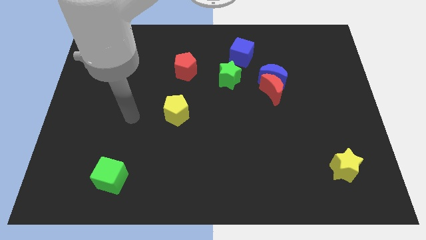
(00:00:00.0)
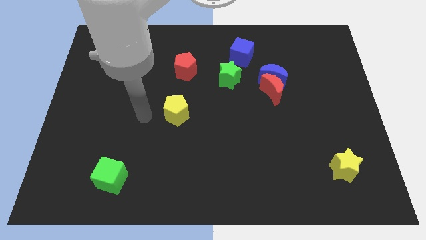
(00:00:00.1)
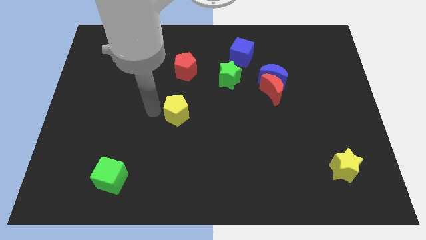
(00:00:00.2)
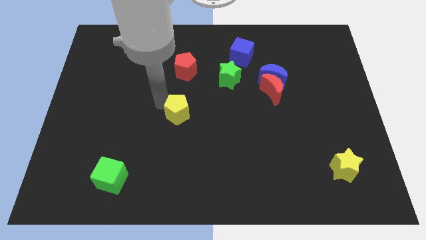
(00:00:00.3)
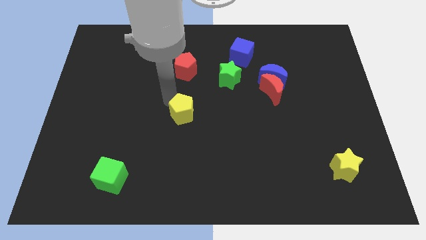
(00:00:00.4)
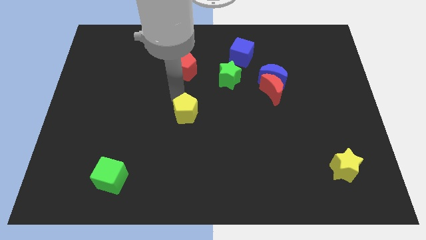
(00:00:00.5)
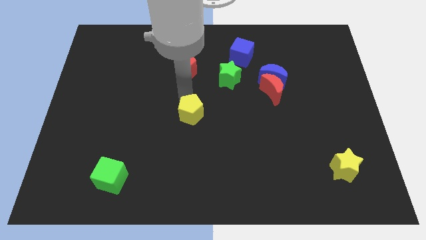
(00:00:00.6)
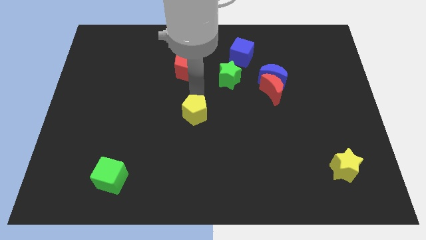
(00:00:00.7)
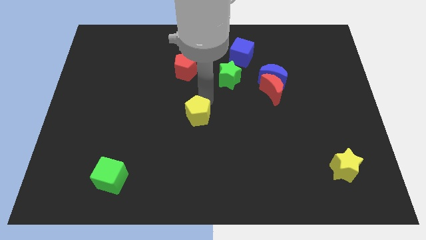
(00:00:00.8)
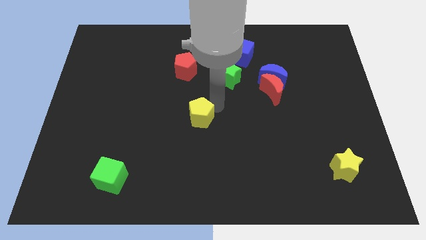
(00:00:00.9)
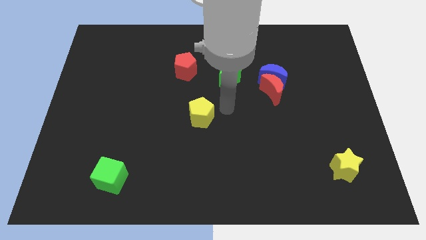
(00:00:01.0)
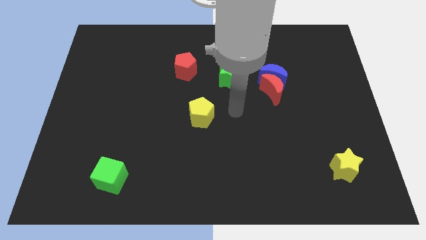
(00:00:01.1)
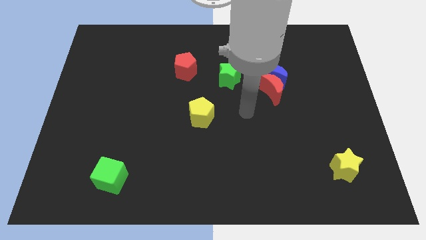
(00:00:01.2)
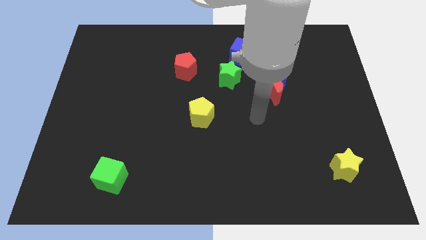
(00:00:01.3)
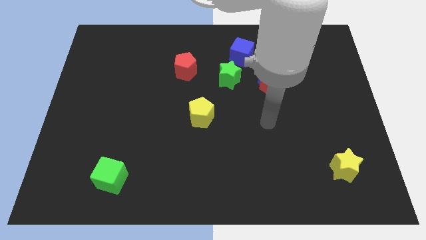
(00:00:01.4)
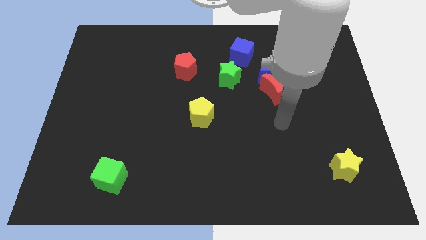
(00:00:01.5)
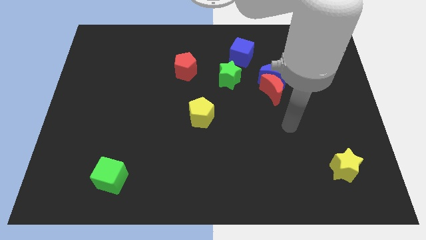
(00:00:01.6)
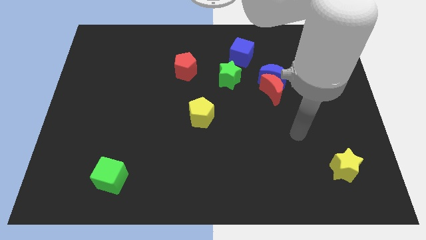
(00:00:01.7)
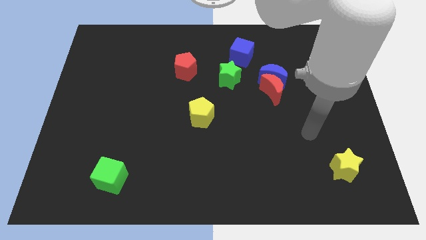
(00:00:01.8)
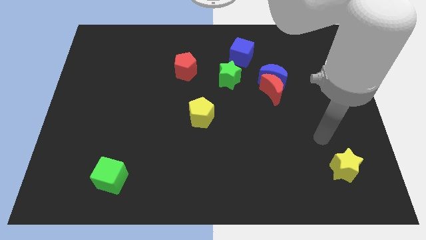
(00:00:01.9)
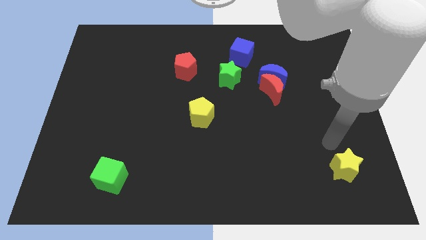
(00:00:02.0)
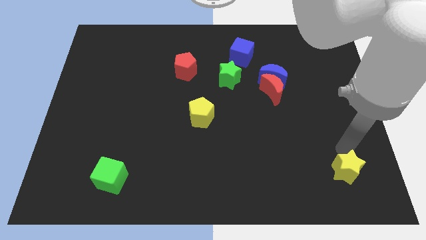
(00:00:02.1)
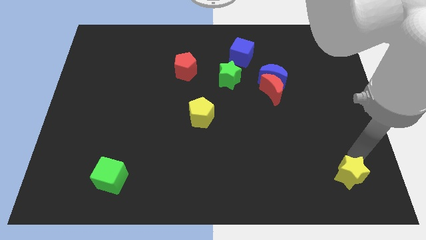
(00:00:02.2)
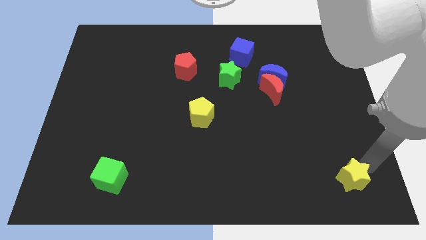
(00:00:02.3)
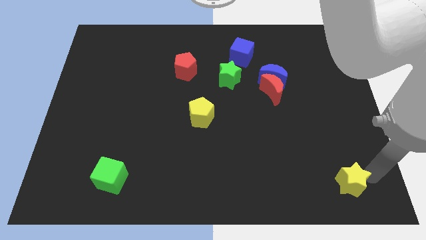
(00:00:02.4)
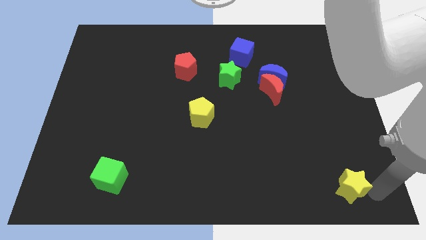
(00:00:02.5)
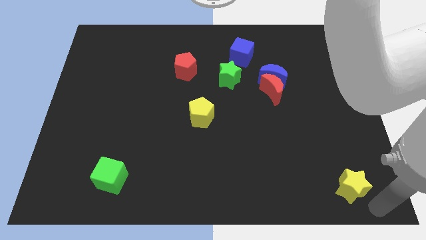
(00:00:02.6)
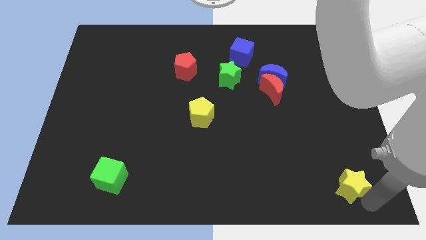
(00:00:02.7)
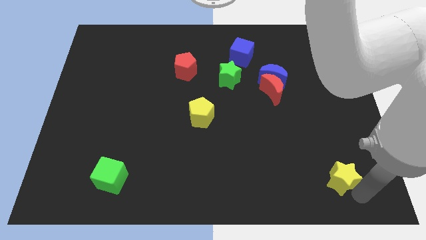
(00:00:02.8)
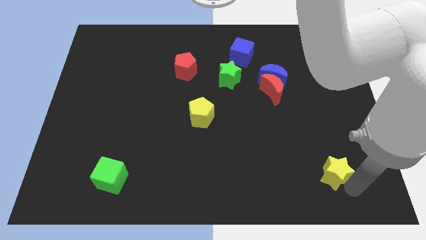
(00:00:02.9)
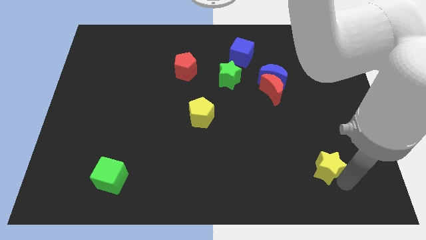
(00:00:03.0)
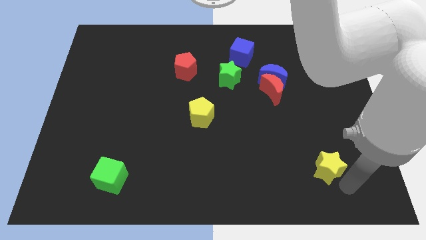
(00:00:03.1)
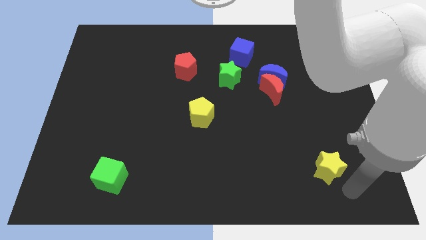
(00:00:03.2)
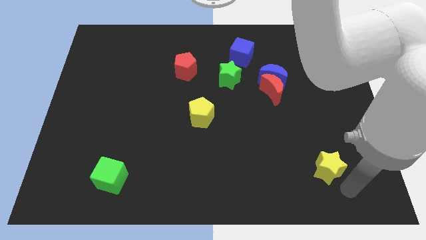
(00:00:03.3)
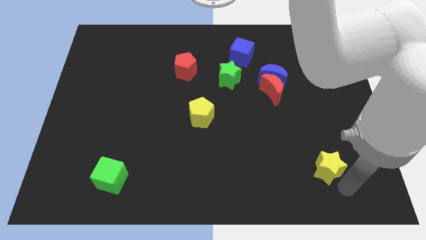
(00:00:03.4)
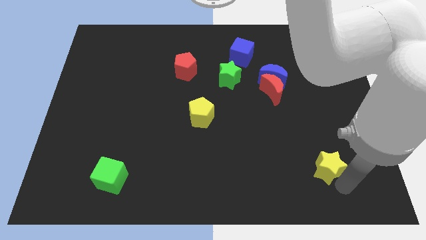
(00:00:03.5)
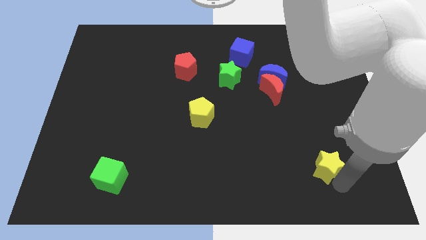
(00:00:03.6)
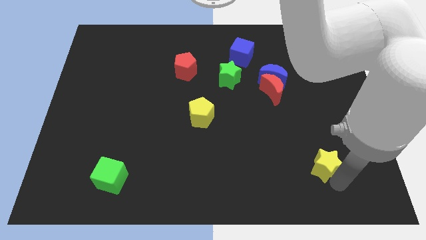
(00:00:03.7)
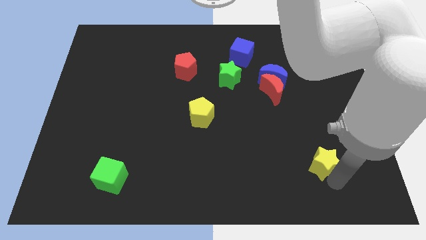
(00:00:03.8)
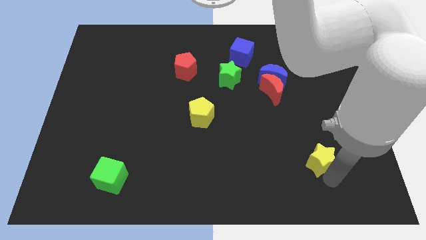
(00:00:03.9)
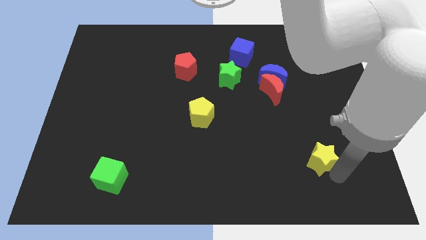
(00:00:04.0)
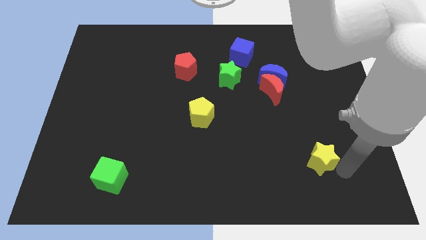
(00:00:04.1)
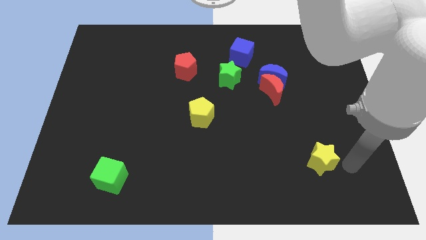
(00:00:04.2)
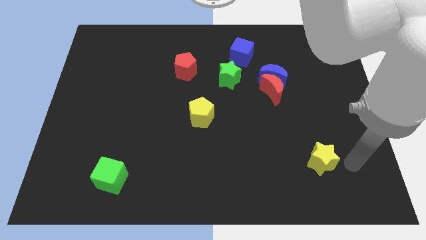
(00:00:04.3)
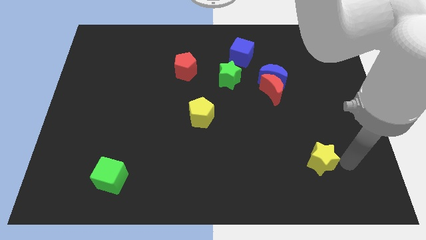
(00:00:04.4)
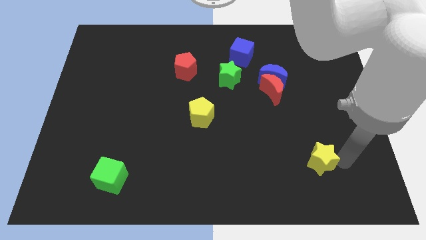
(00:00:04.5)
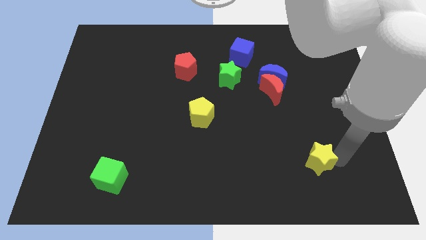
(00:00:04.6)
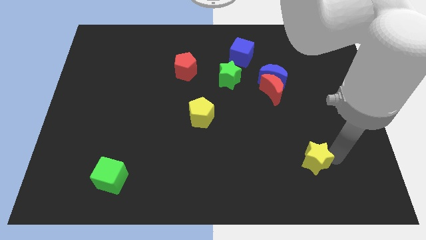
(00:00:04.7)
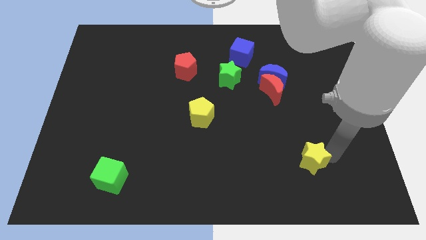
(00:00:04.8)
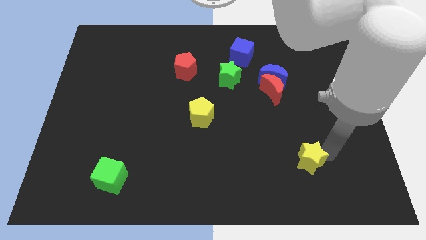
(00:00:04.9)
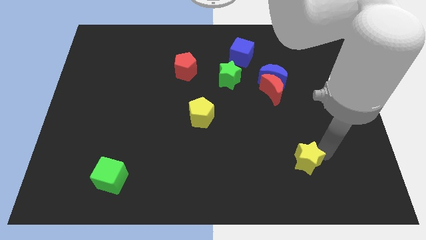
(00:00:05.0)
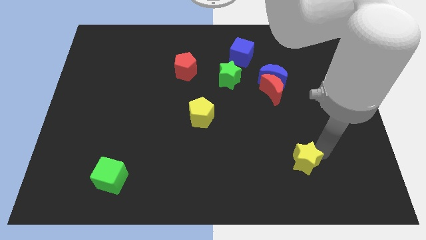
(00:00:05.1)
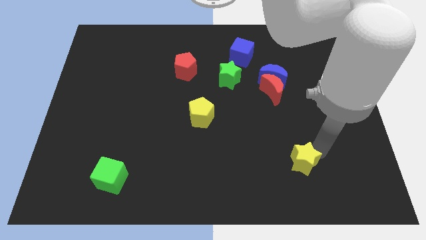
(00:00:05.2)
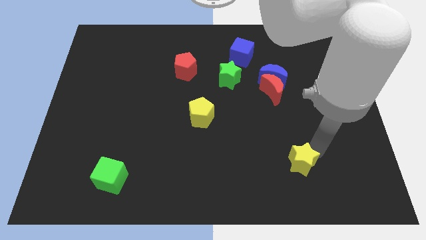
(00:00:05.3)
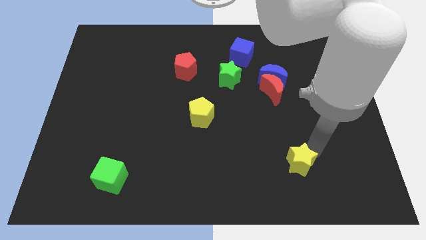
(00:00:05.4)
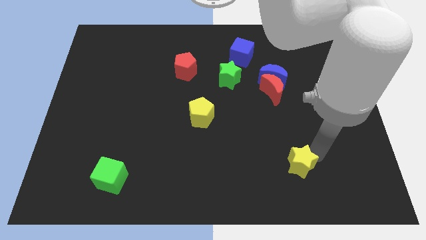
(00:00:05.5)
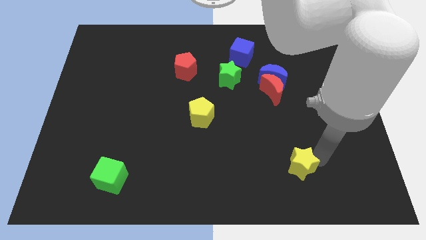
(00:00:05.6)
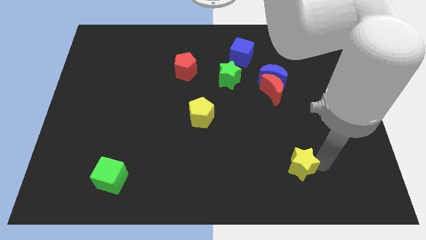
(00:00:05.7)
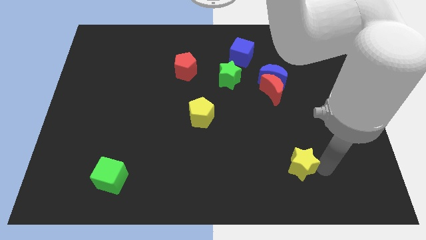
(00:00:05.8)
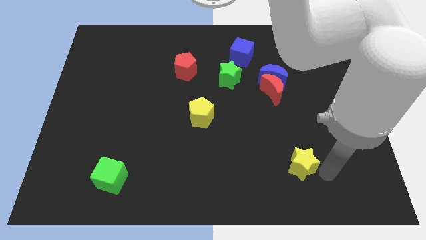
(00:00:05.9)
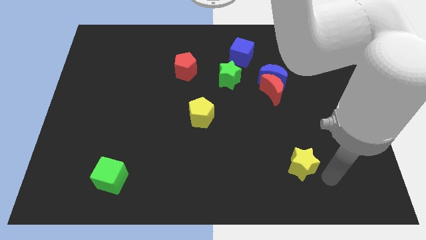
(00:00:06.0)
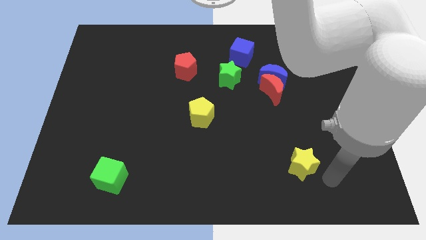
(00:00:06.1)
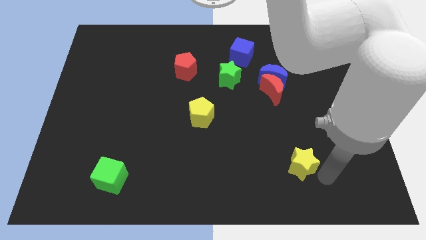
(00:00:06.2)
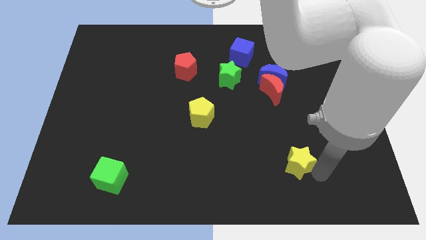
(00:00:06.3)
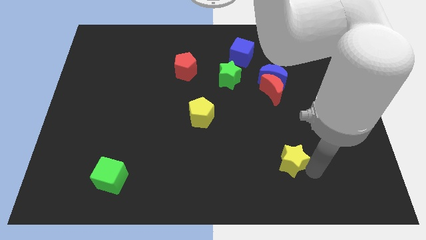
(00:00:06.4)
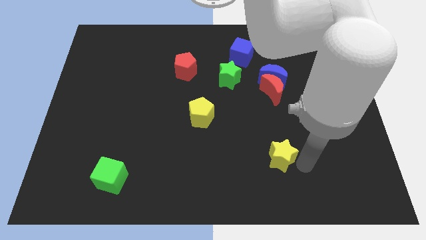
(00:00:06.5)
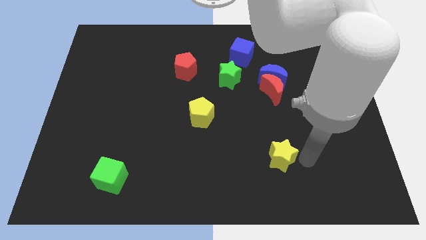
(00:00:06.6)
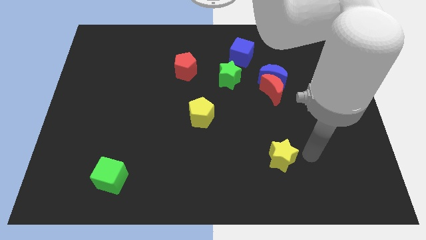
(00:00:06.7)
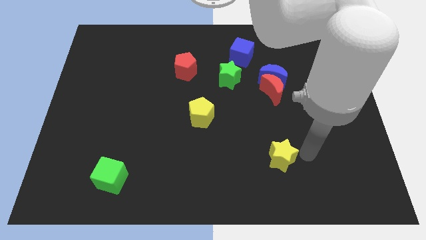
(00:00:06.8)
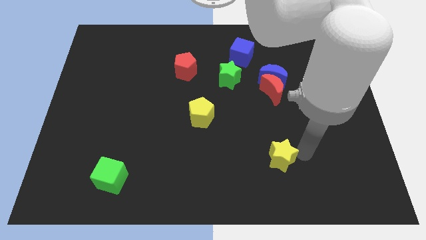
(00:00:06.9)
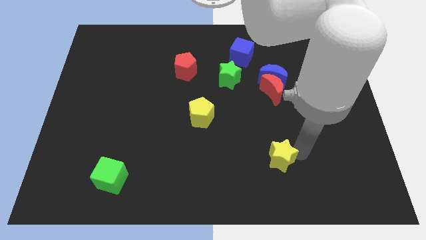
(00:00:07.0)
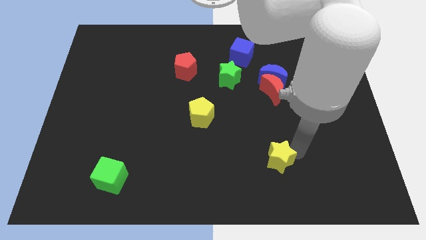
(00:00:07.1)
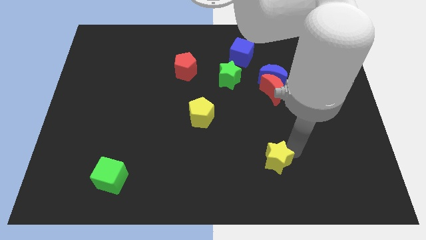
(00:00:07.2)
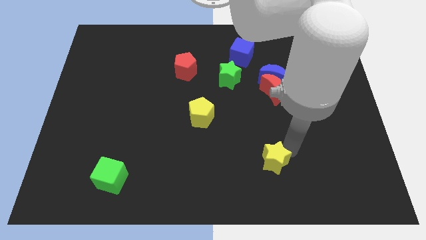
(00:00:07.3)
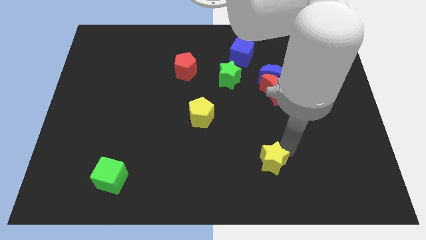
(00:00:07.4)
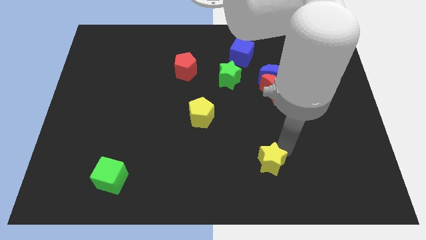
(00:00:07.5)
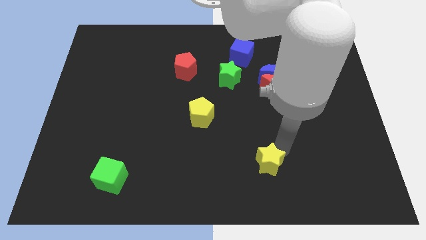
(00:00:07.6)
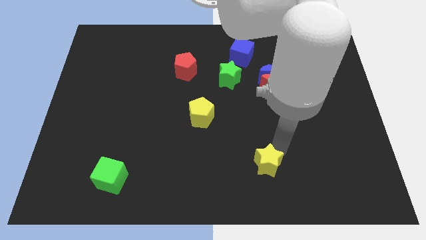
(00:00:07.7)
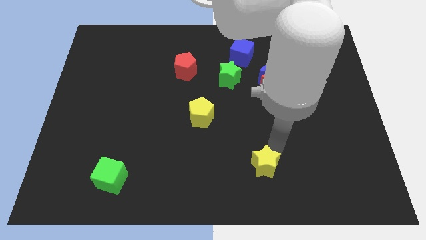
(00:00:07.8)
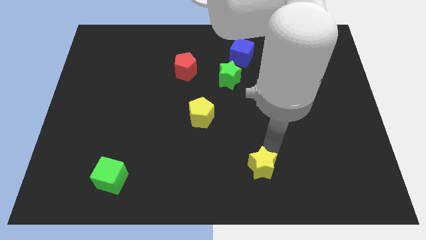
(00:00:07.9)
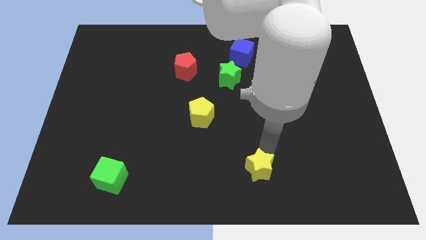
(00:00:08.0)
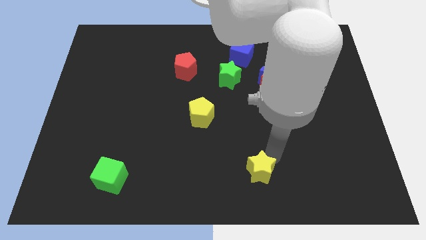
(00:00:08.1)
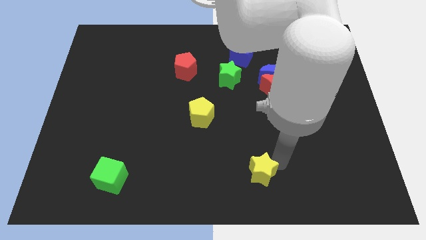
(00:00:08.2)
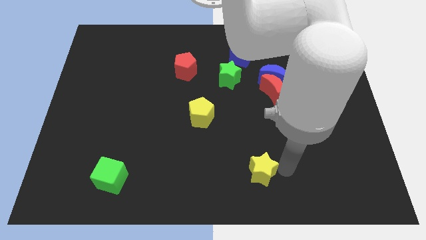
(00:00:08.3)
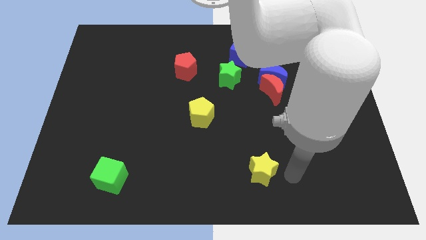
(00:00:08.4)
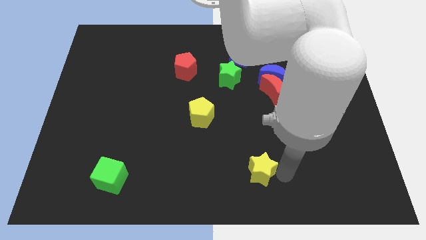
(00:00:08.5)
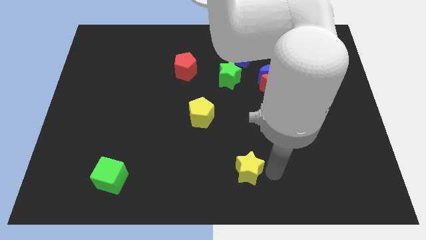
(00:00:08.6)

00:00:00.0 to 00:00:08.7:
push the yellow star left
